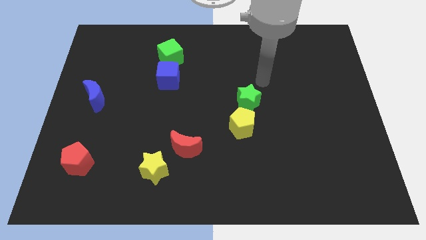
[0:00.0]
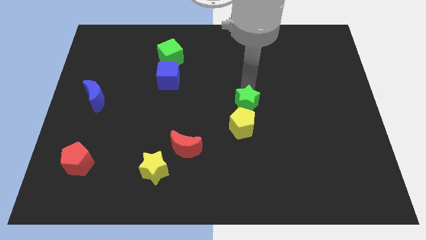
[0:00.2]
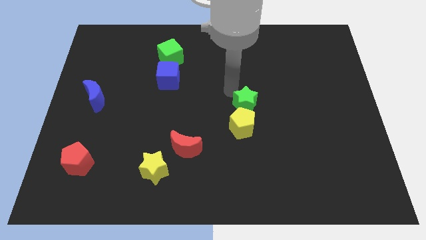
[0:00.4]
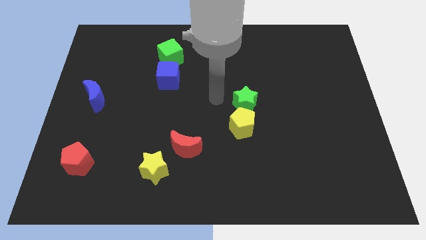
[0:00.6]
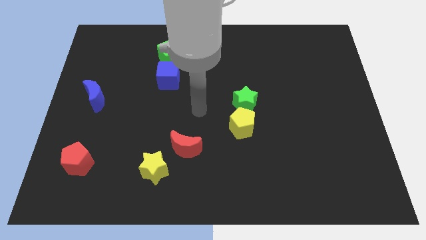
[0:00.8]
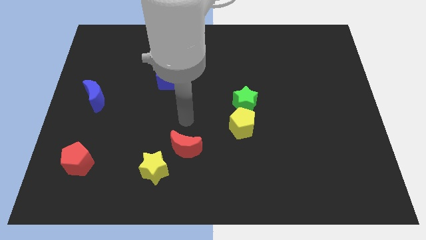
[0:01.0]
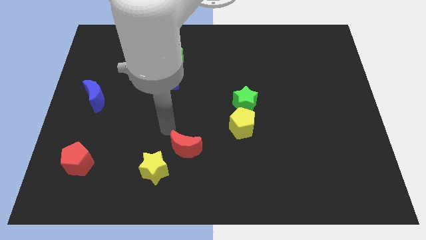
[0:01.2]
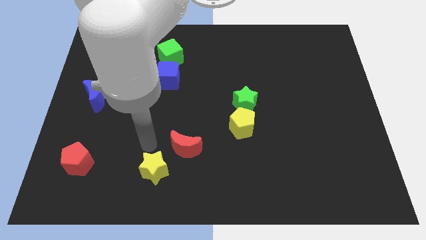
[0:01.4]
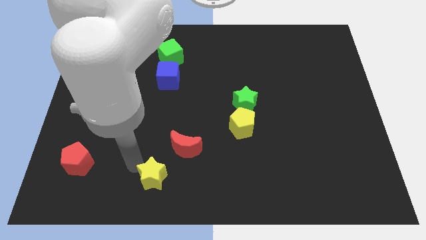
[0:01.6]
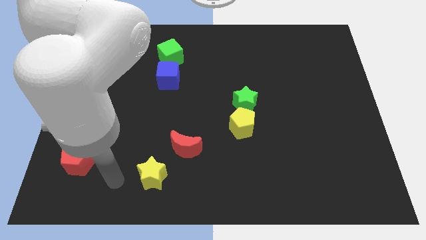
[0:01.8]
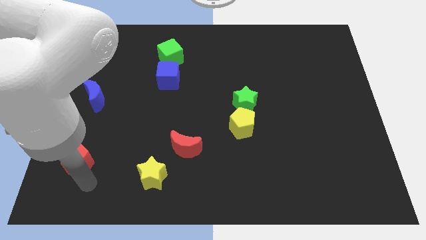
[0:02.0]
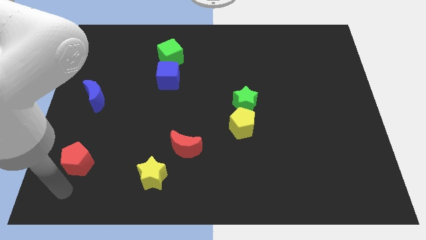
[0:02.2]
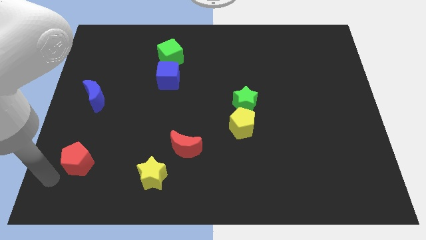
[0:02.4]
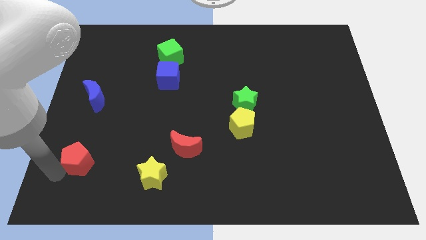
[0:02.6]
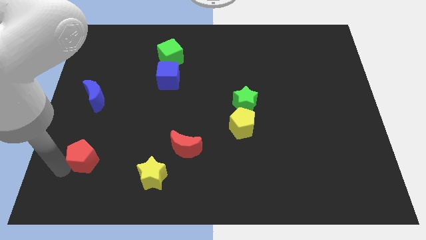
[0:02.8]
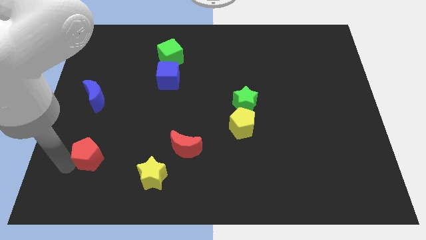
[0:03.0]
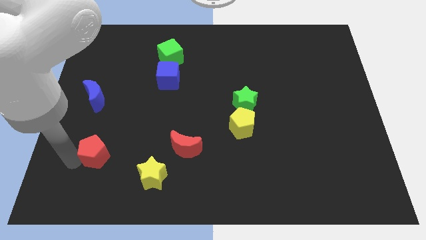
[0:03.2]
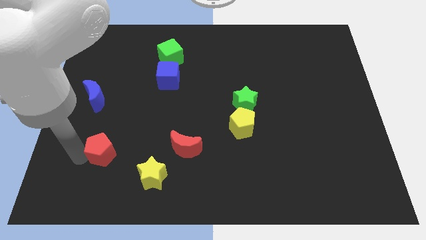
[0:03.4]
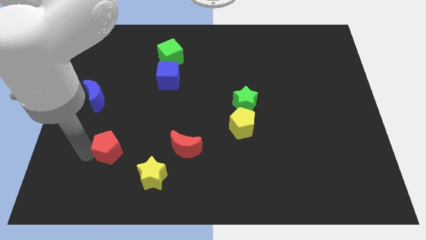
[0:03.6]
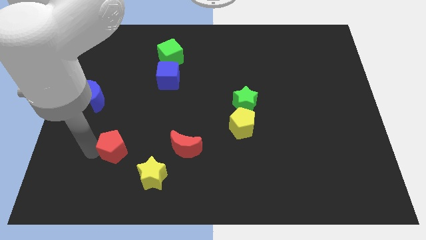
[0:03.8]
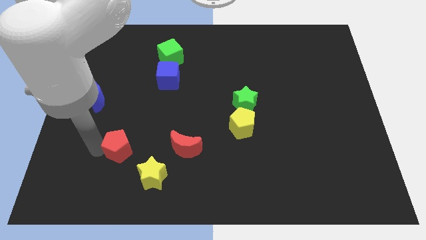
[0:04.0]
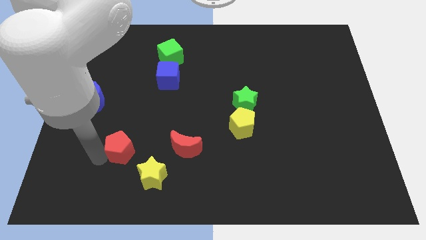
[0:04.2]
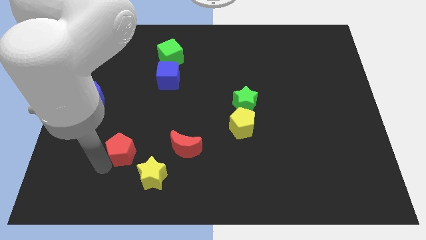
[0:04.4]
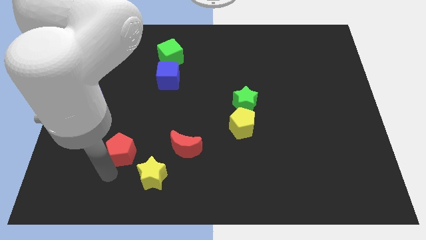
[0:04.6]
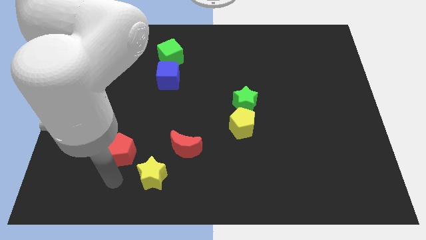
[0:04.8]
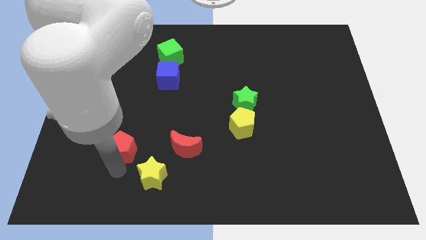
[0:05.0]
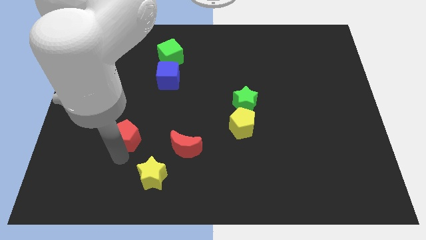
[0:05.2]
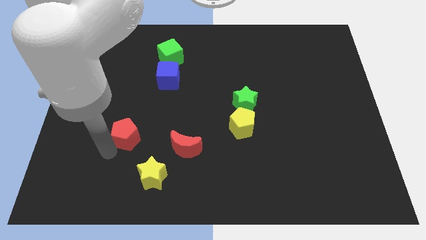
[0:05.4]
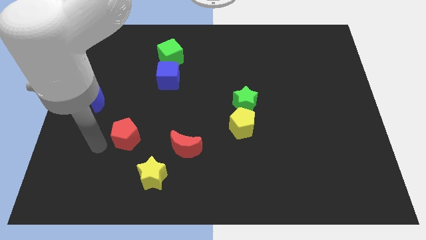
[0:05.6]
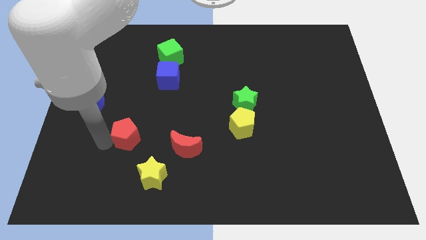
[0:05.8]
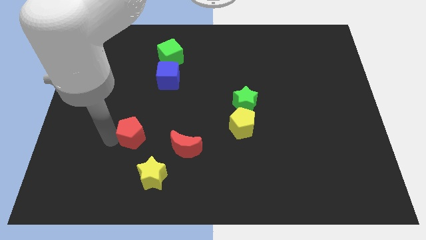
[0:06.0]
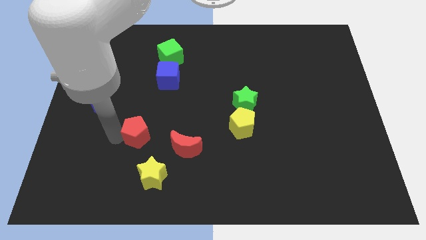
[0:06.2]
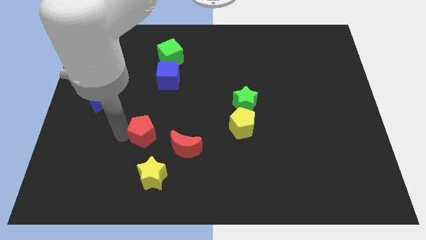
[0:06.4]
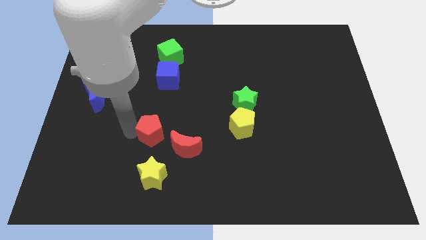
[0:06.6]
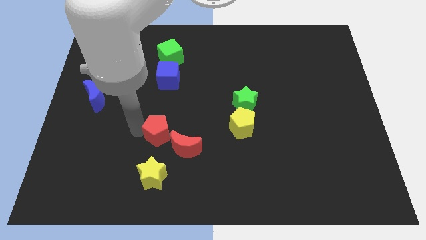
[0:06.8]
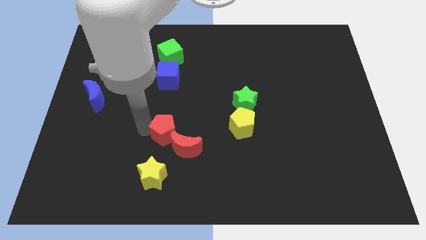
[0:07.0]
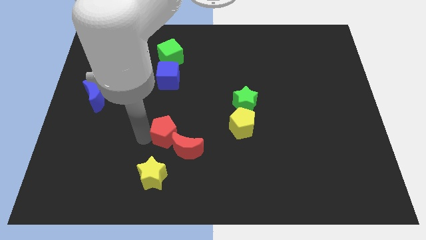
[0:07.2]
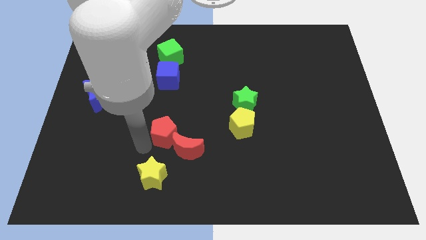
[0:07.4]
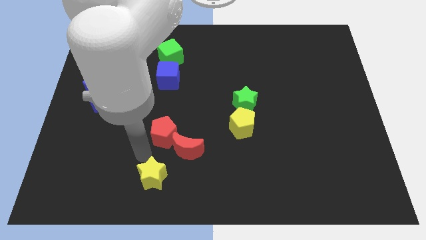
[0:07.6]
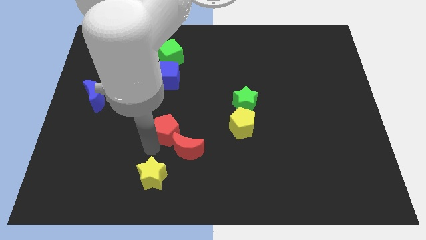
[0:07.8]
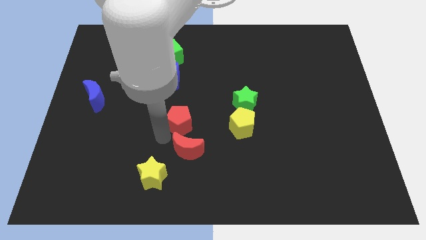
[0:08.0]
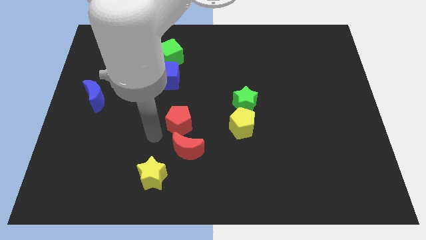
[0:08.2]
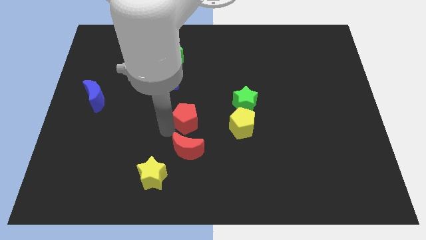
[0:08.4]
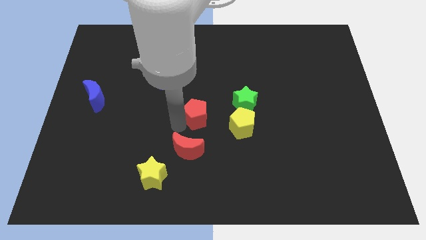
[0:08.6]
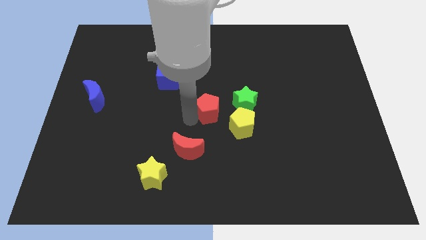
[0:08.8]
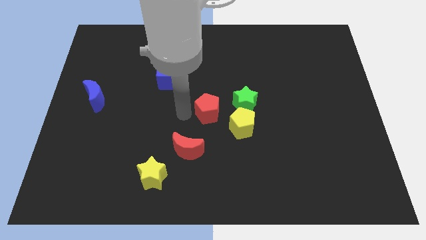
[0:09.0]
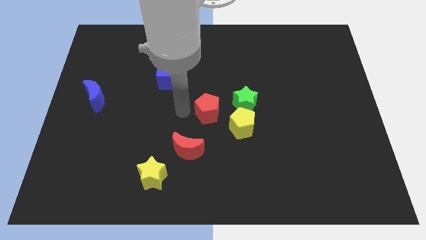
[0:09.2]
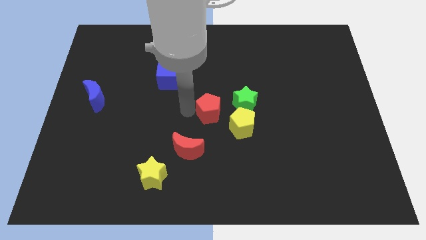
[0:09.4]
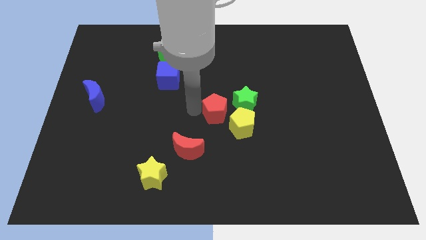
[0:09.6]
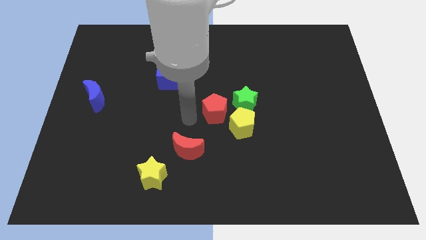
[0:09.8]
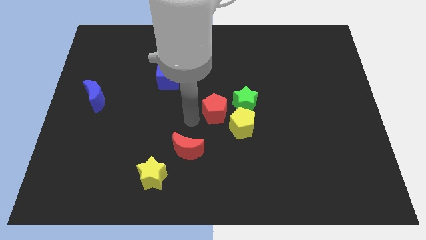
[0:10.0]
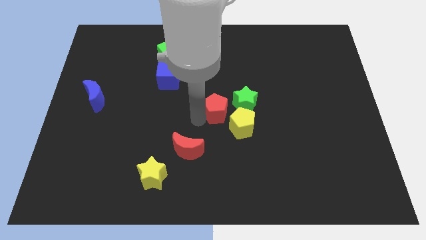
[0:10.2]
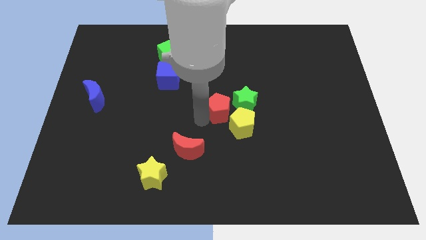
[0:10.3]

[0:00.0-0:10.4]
slide the red pentagon close to the green star

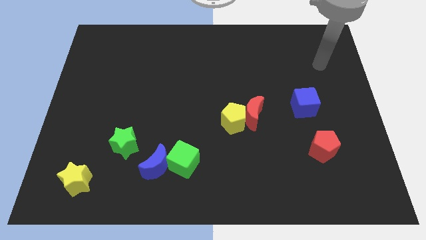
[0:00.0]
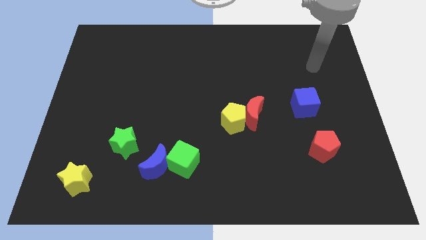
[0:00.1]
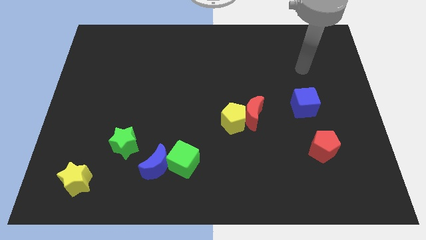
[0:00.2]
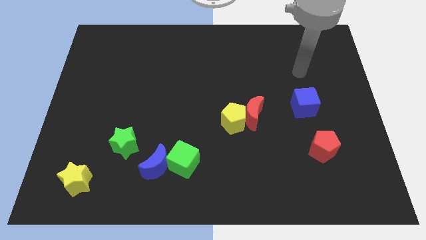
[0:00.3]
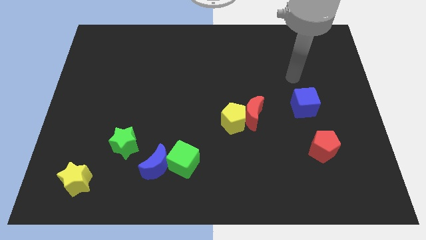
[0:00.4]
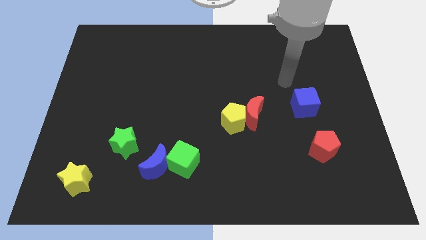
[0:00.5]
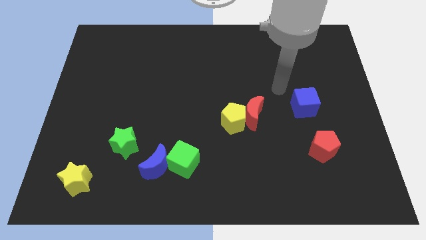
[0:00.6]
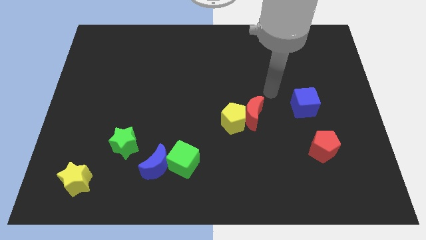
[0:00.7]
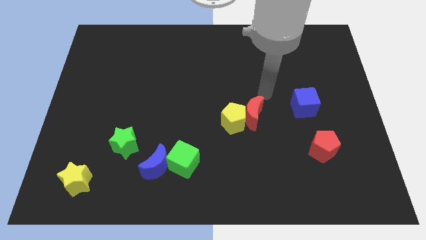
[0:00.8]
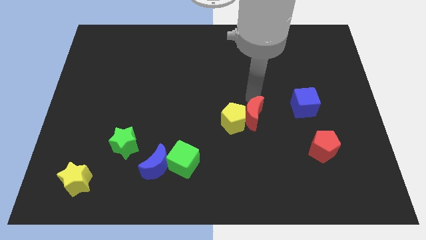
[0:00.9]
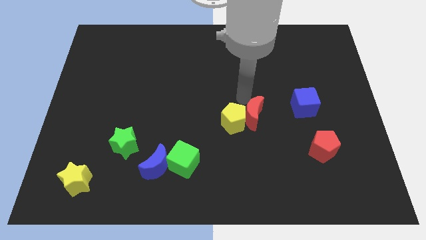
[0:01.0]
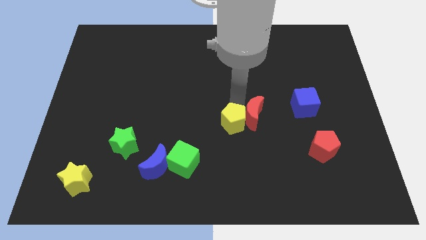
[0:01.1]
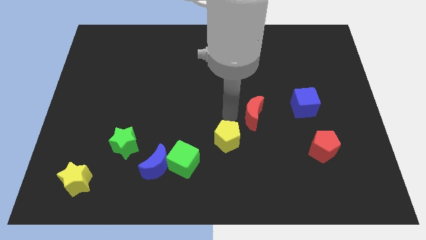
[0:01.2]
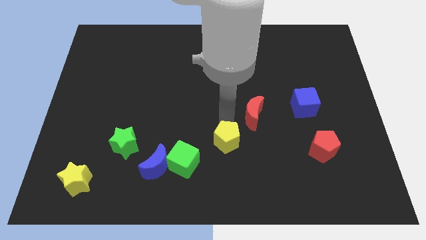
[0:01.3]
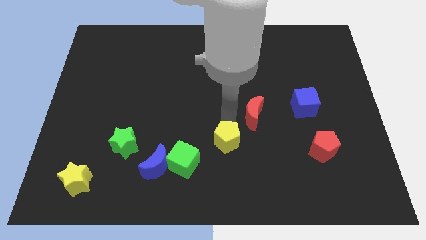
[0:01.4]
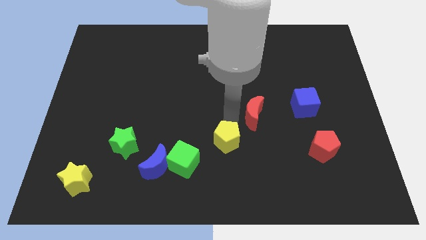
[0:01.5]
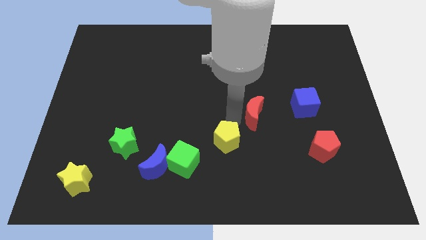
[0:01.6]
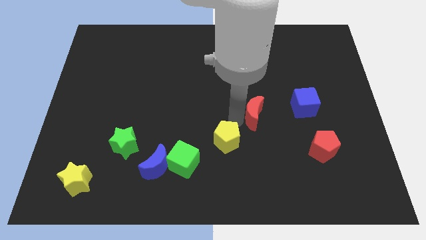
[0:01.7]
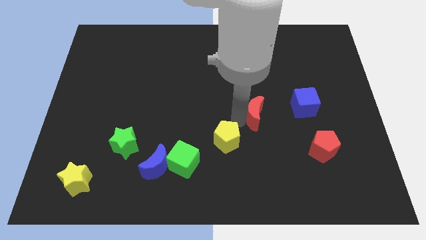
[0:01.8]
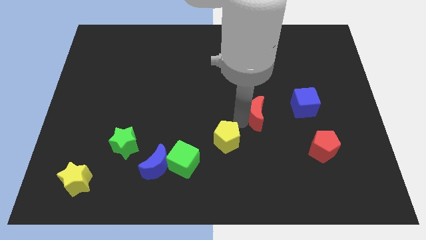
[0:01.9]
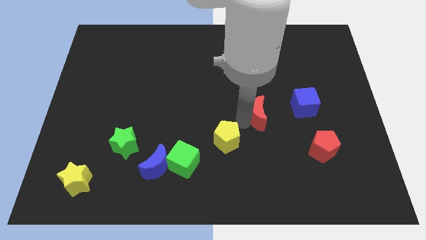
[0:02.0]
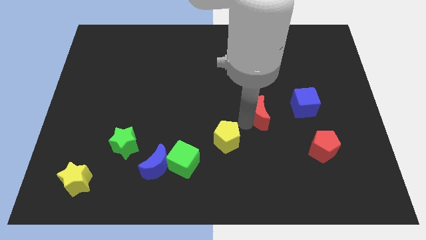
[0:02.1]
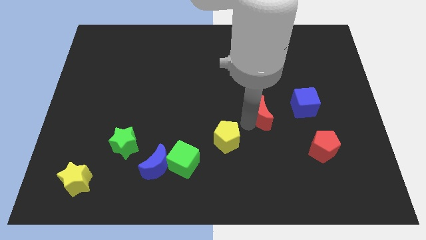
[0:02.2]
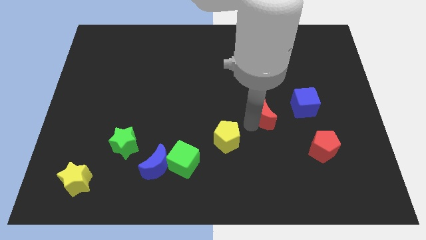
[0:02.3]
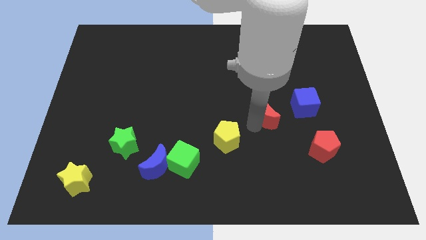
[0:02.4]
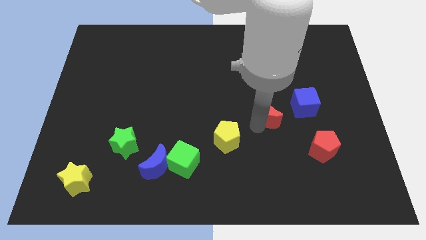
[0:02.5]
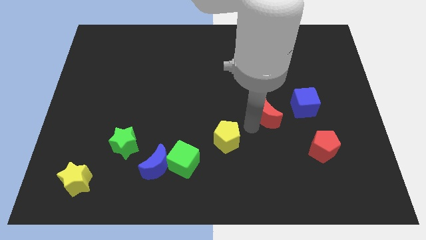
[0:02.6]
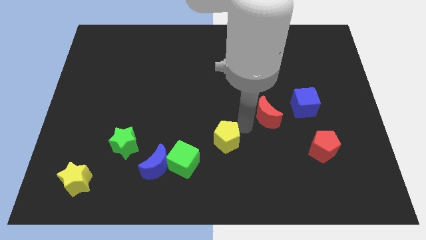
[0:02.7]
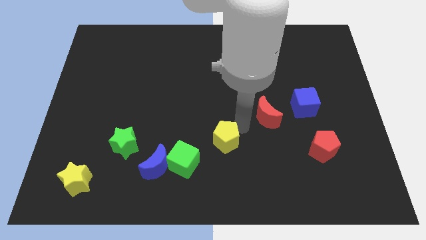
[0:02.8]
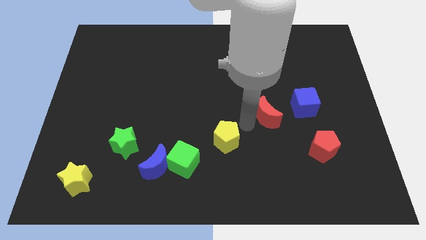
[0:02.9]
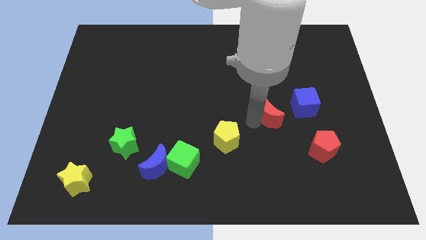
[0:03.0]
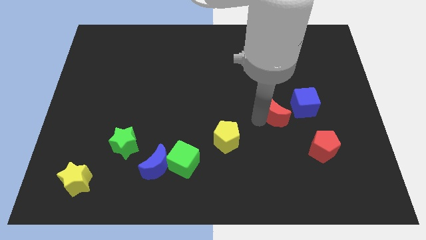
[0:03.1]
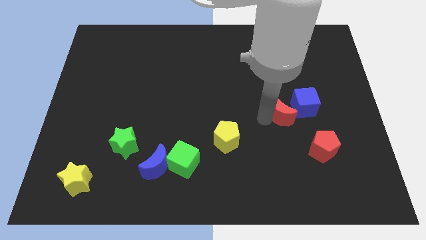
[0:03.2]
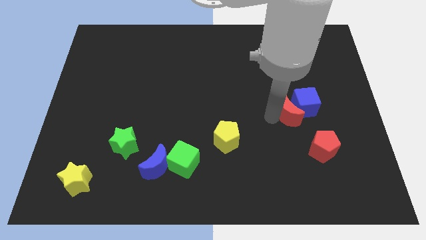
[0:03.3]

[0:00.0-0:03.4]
slide the red moon next to the blue cube
